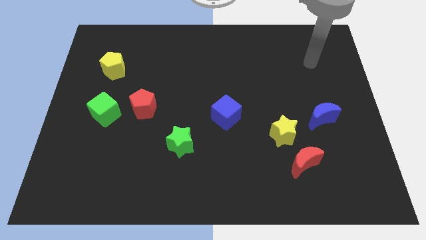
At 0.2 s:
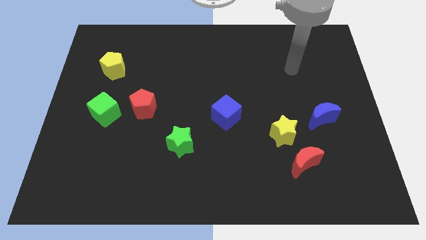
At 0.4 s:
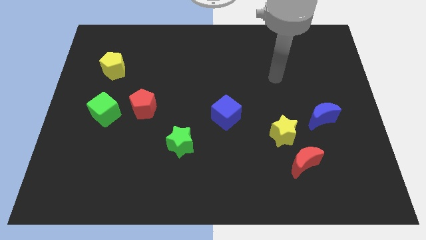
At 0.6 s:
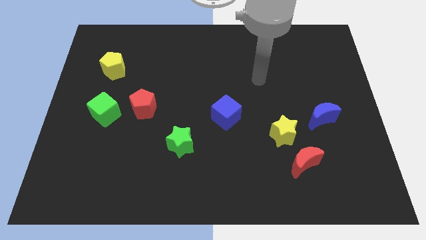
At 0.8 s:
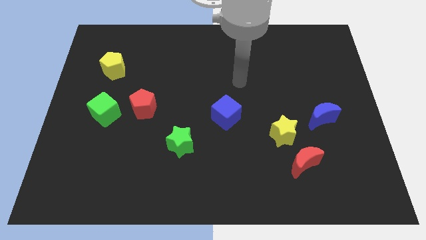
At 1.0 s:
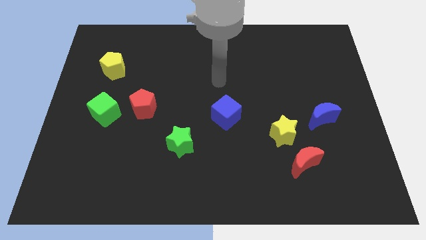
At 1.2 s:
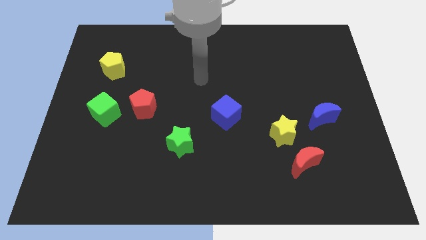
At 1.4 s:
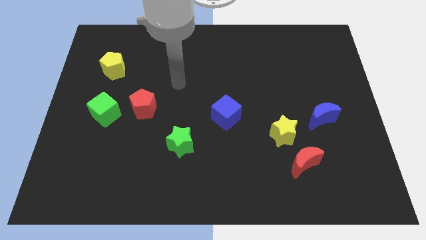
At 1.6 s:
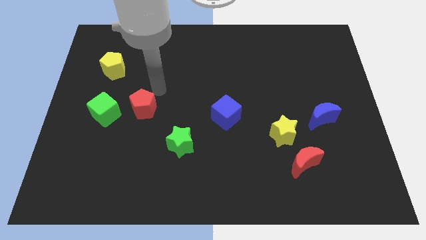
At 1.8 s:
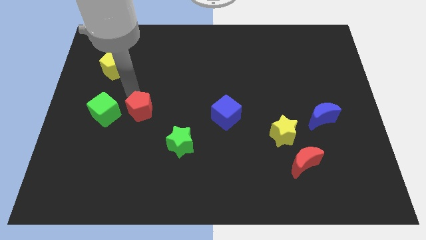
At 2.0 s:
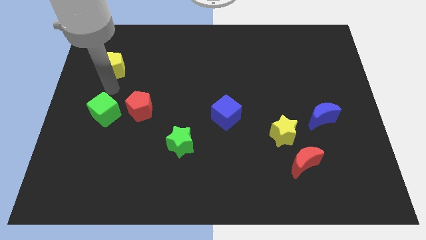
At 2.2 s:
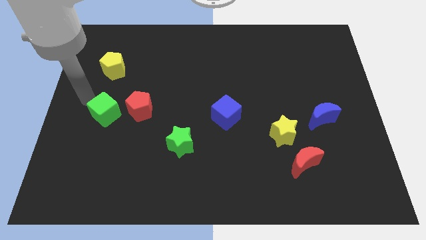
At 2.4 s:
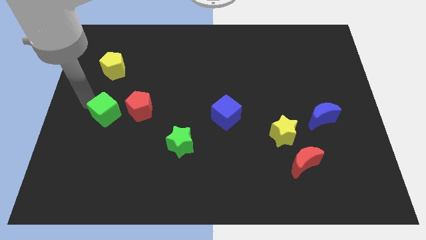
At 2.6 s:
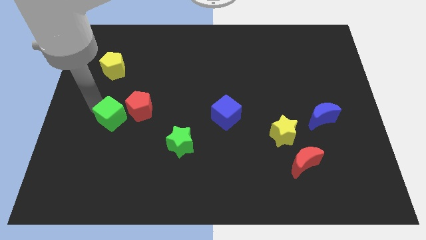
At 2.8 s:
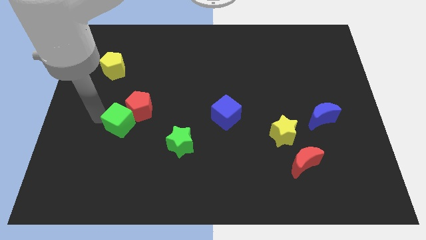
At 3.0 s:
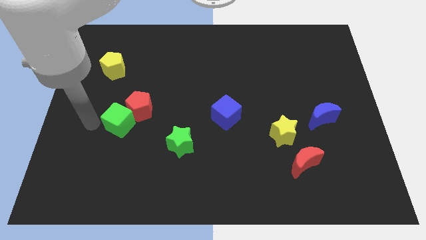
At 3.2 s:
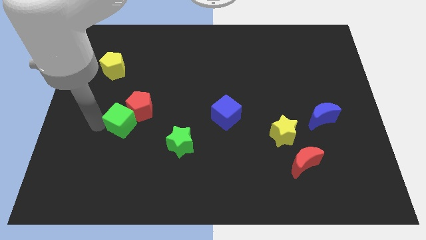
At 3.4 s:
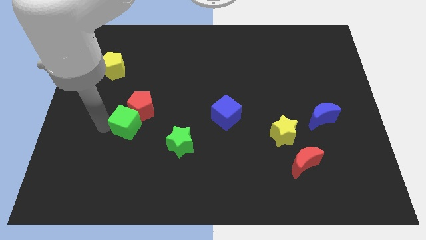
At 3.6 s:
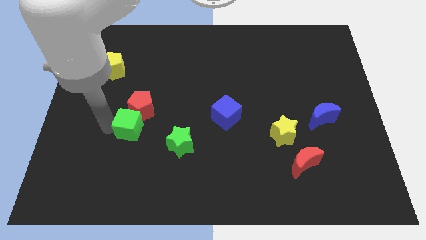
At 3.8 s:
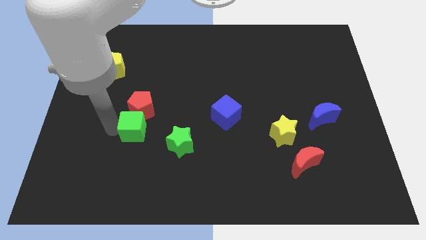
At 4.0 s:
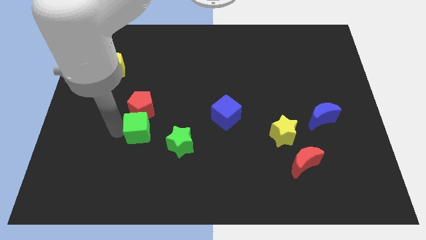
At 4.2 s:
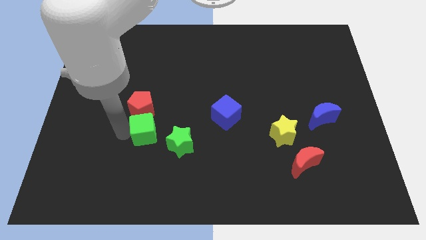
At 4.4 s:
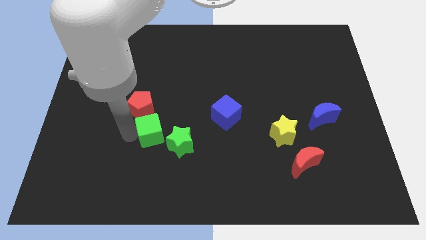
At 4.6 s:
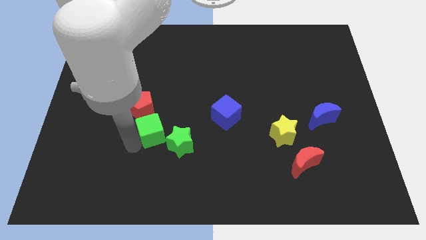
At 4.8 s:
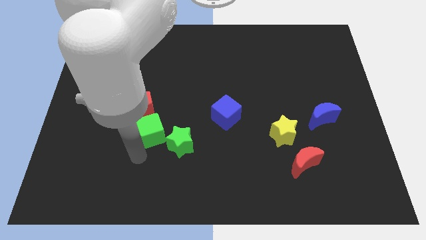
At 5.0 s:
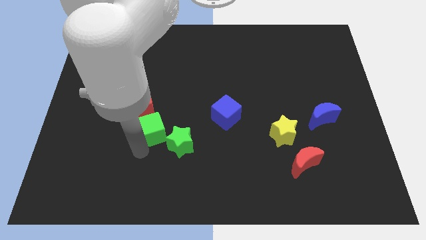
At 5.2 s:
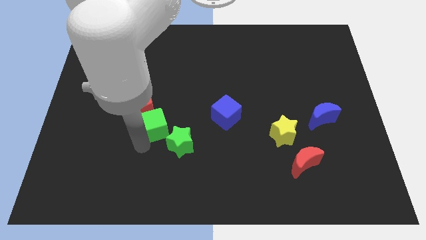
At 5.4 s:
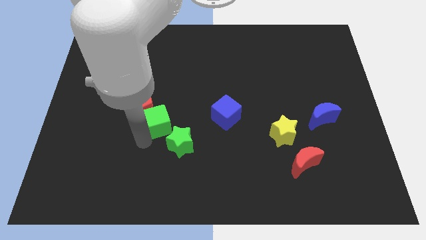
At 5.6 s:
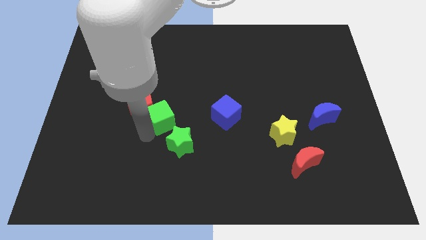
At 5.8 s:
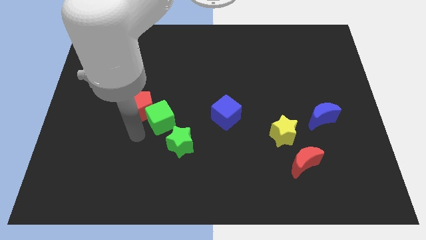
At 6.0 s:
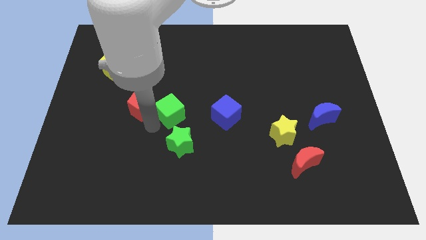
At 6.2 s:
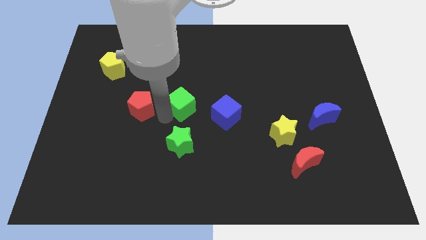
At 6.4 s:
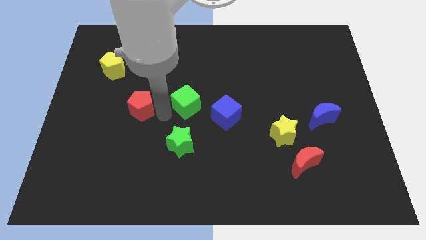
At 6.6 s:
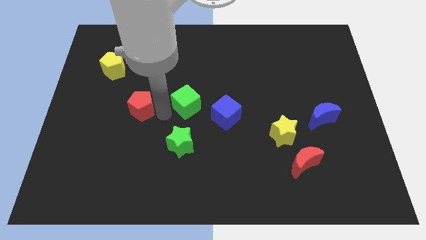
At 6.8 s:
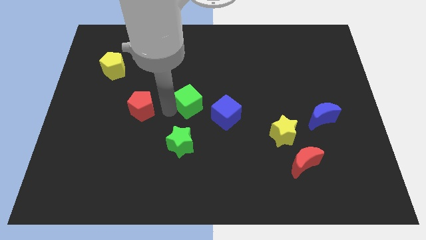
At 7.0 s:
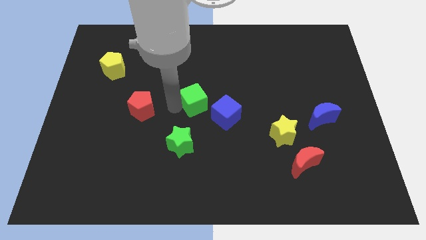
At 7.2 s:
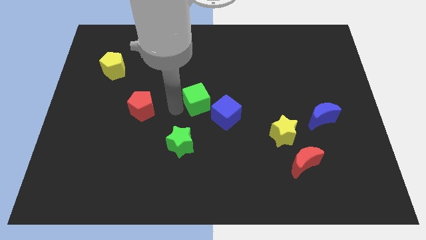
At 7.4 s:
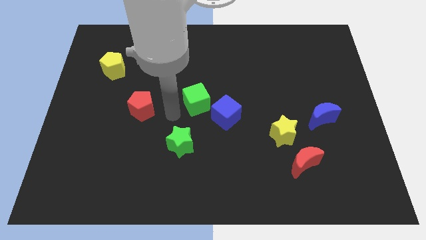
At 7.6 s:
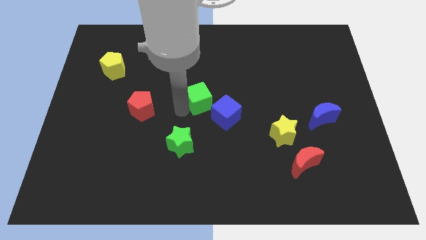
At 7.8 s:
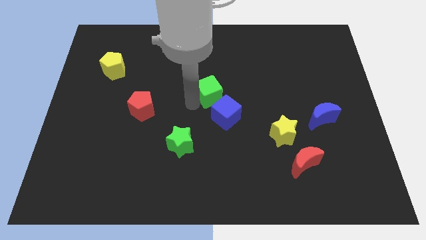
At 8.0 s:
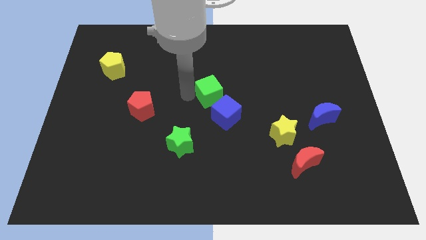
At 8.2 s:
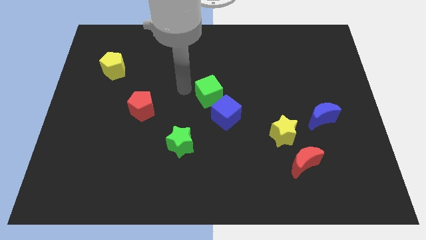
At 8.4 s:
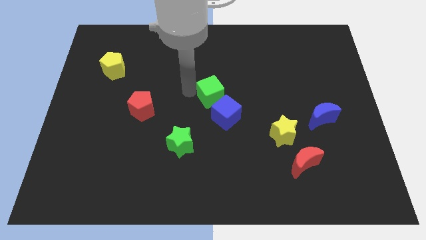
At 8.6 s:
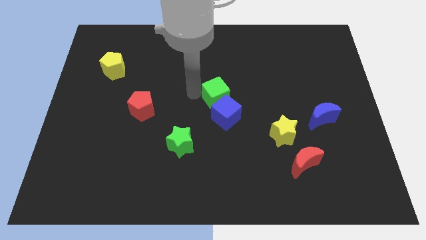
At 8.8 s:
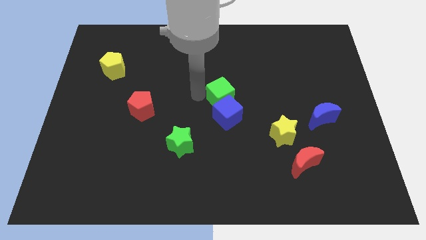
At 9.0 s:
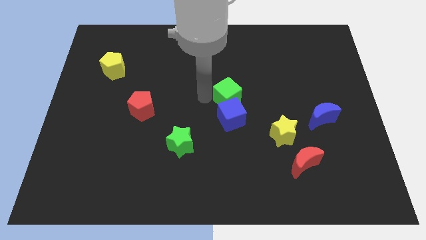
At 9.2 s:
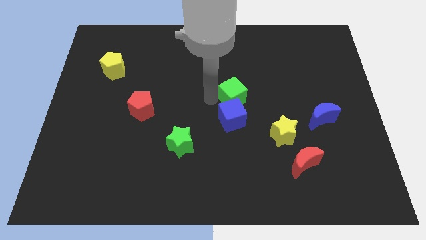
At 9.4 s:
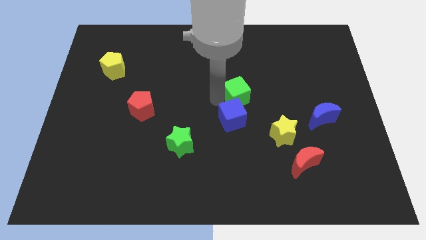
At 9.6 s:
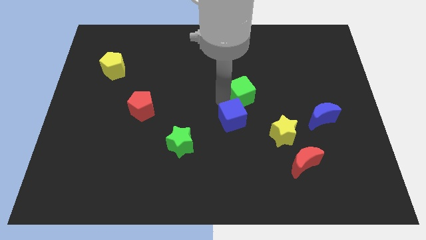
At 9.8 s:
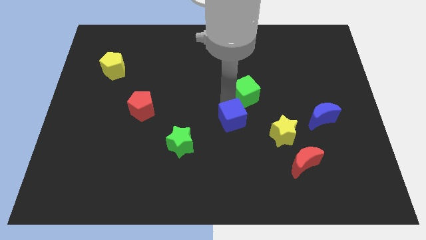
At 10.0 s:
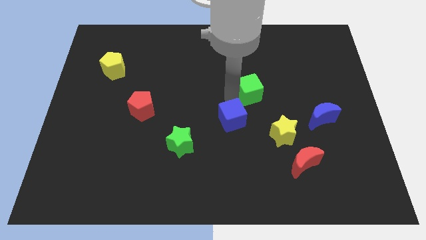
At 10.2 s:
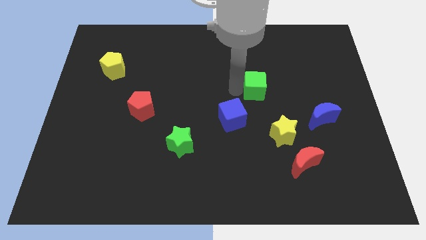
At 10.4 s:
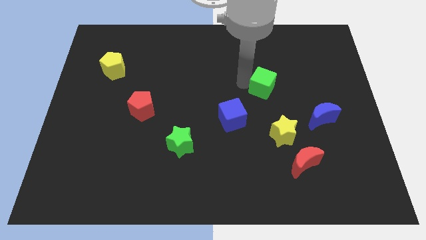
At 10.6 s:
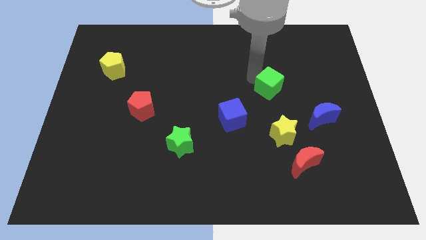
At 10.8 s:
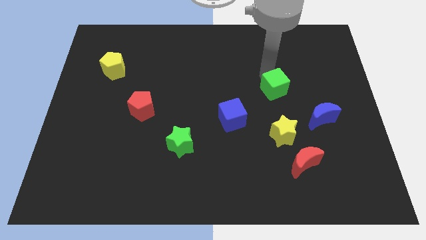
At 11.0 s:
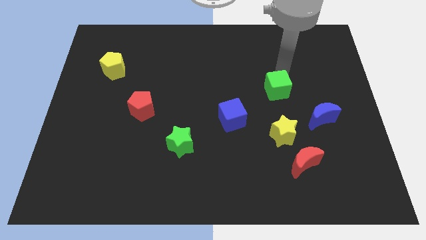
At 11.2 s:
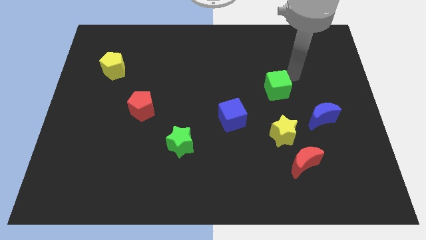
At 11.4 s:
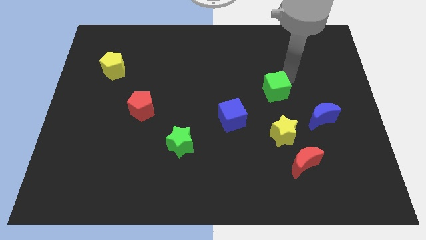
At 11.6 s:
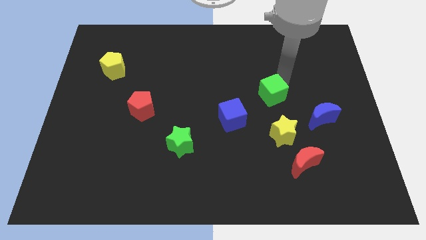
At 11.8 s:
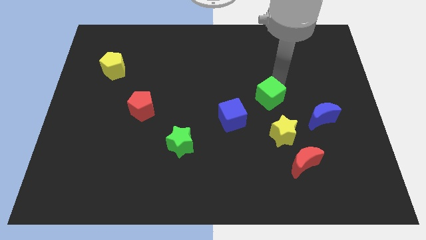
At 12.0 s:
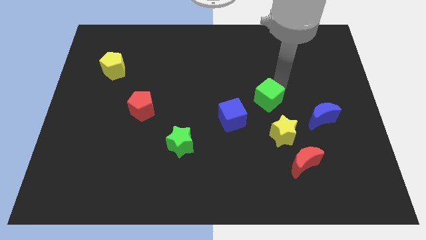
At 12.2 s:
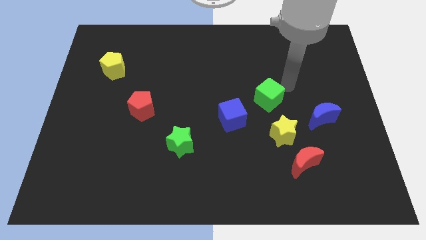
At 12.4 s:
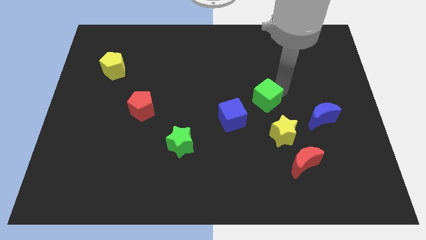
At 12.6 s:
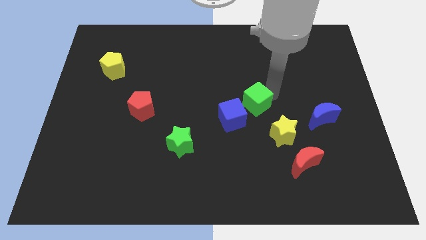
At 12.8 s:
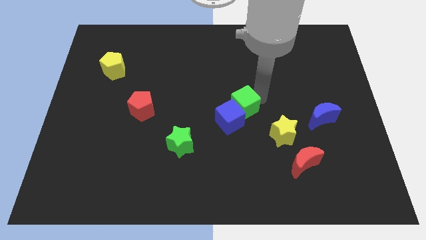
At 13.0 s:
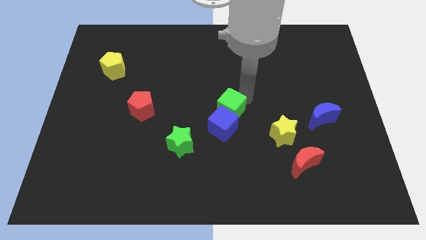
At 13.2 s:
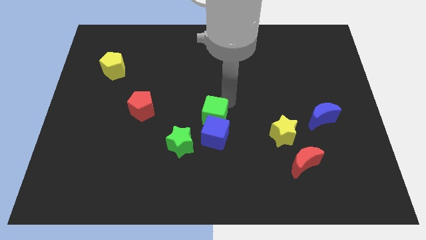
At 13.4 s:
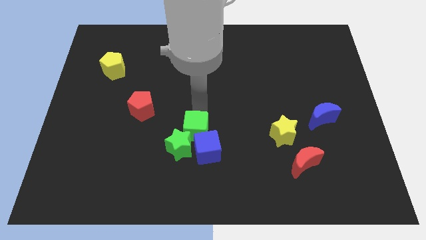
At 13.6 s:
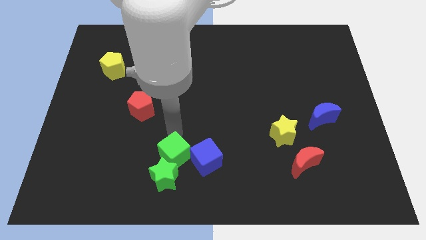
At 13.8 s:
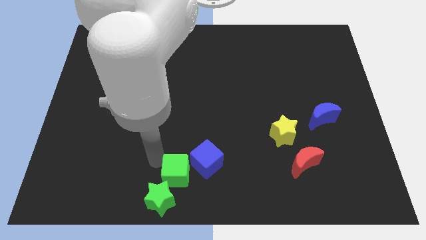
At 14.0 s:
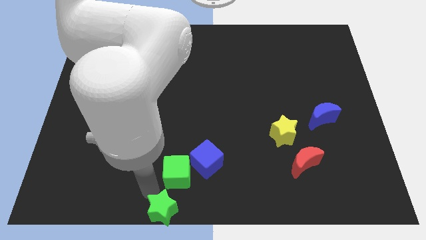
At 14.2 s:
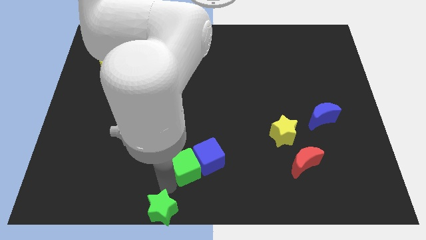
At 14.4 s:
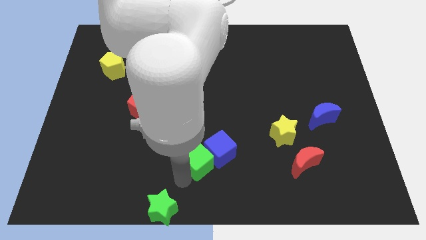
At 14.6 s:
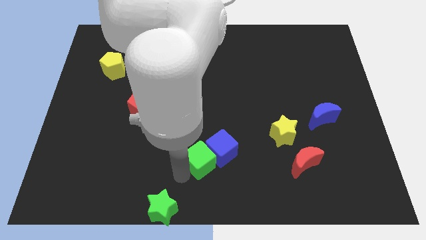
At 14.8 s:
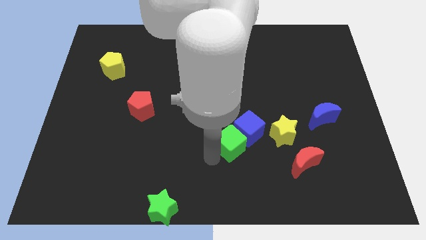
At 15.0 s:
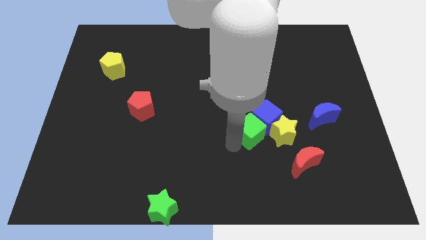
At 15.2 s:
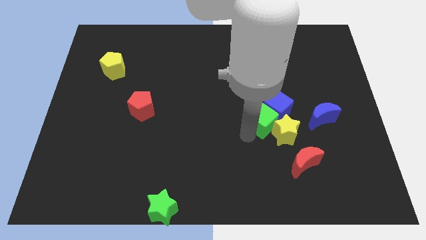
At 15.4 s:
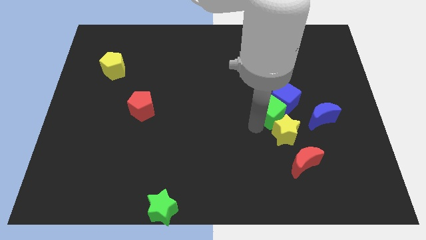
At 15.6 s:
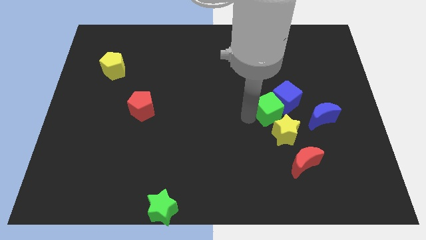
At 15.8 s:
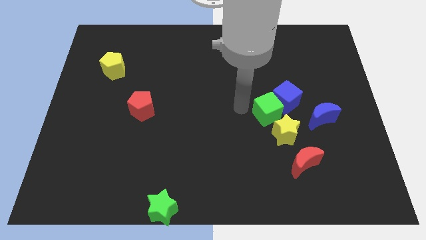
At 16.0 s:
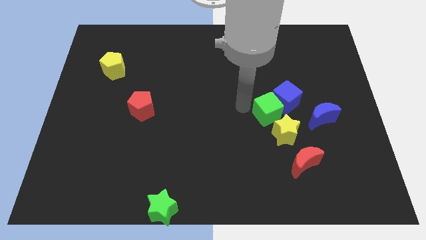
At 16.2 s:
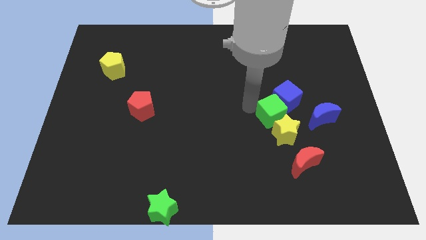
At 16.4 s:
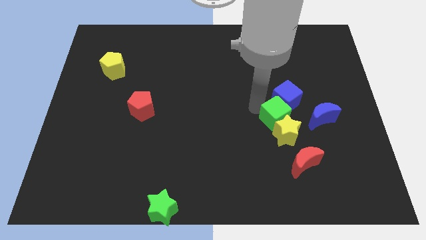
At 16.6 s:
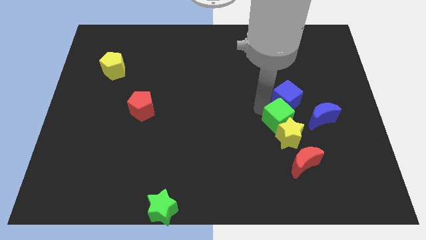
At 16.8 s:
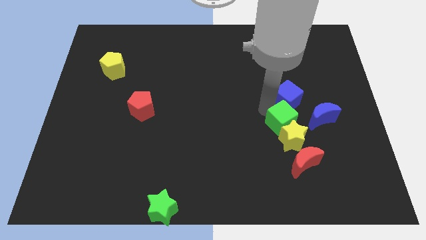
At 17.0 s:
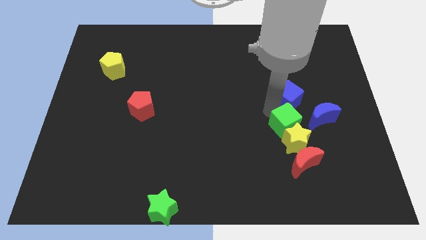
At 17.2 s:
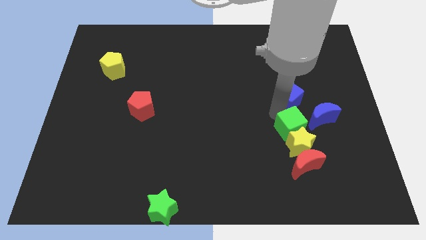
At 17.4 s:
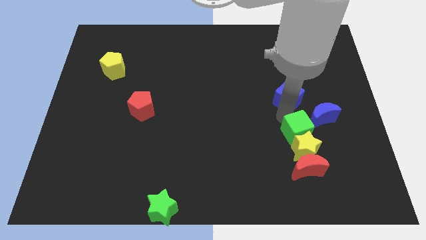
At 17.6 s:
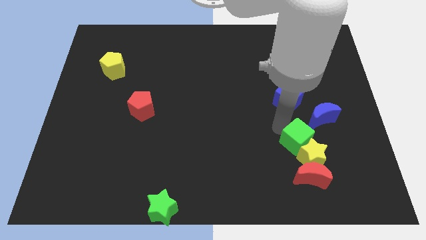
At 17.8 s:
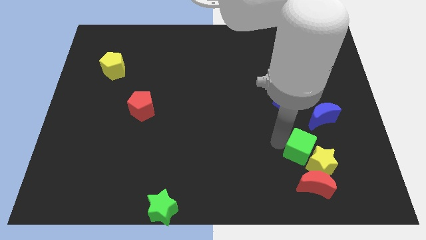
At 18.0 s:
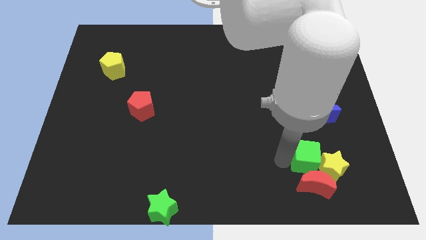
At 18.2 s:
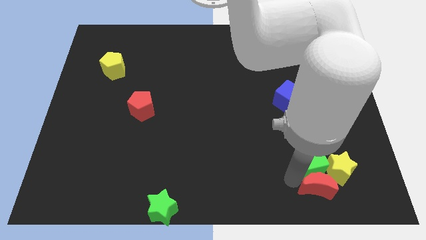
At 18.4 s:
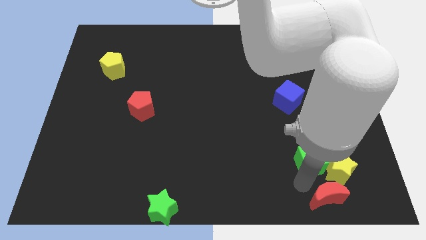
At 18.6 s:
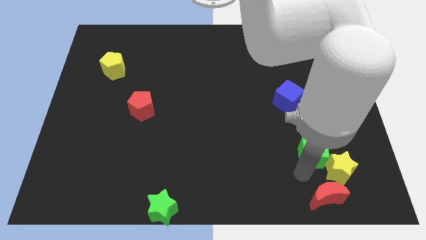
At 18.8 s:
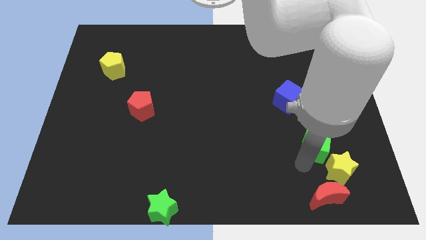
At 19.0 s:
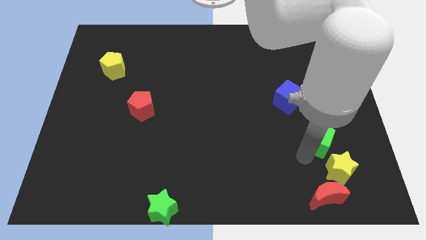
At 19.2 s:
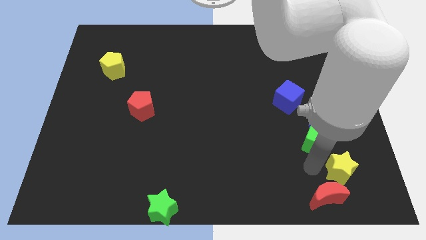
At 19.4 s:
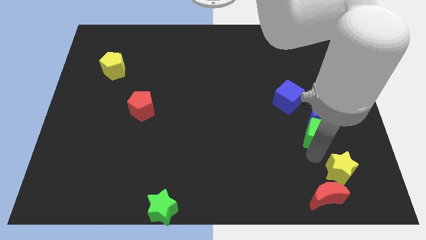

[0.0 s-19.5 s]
slide the green cube next to the blue moon
